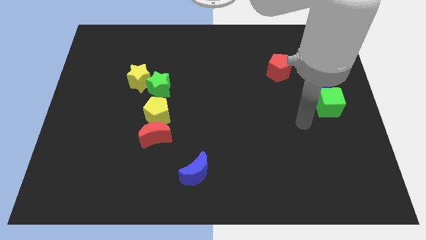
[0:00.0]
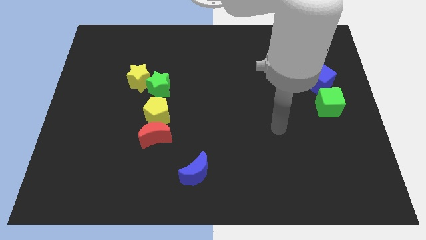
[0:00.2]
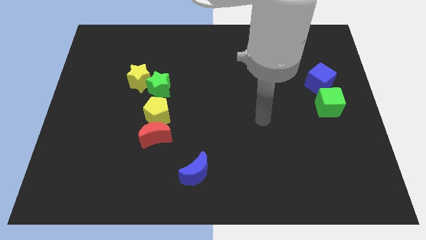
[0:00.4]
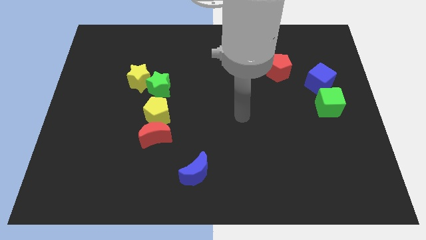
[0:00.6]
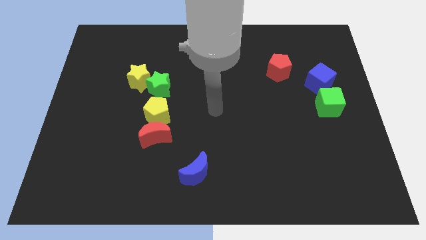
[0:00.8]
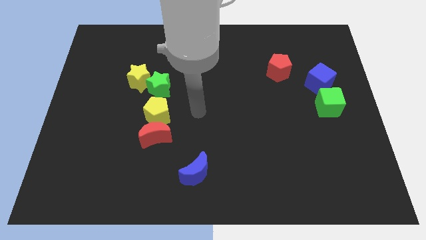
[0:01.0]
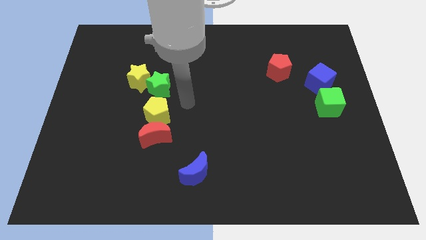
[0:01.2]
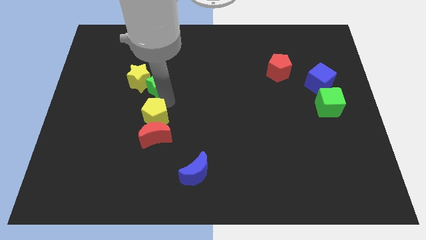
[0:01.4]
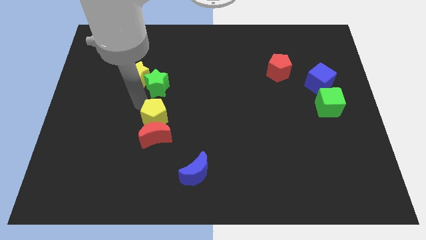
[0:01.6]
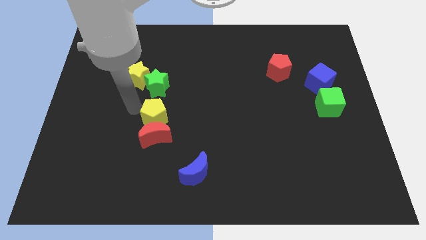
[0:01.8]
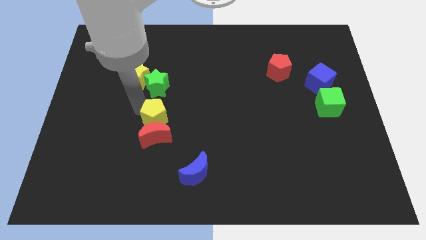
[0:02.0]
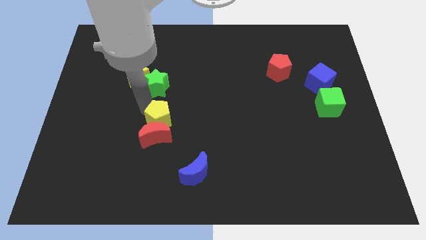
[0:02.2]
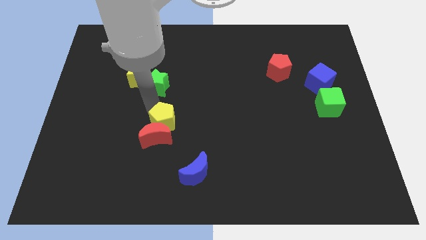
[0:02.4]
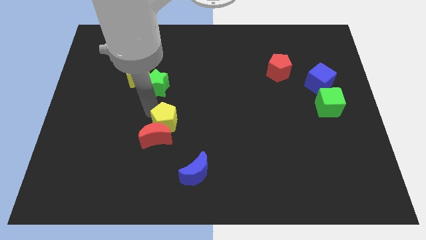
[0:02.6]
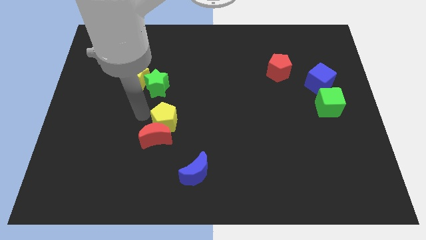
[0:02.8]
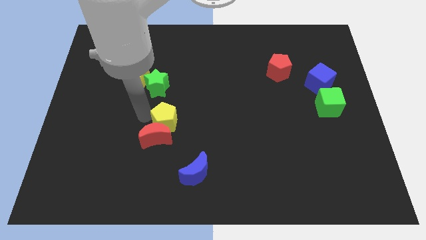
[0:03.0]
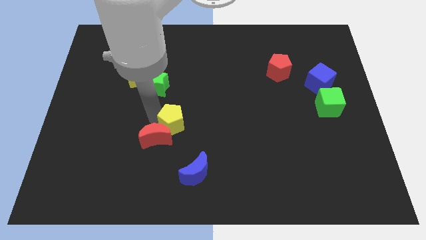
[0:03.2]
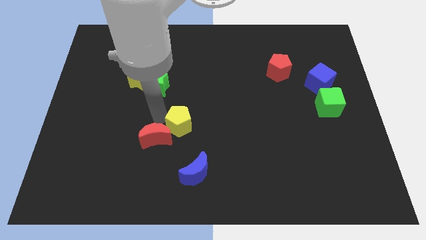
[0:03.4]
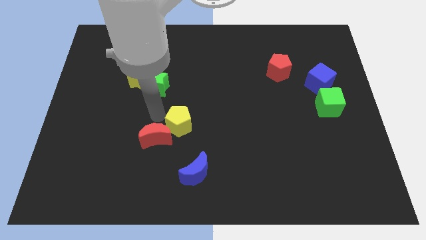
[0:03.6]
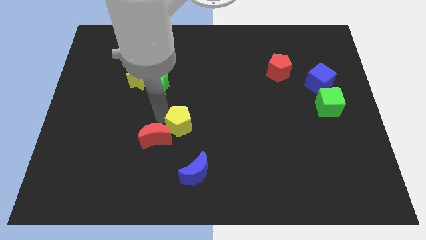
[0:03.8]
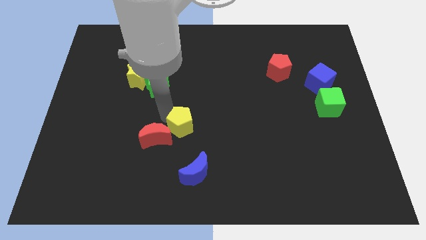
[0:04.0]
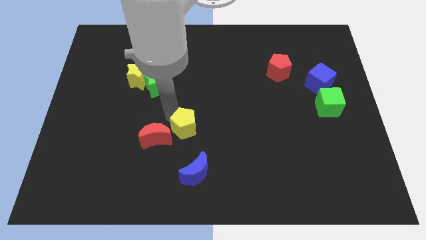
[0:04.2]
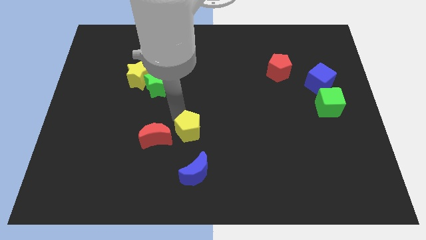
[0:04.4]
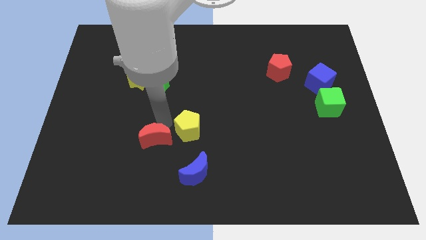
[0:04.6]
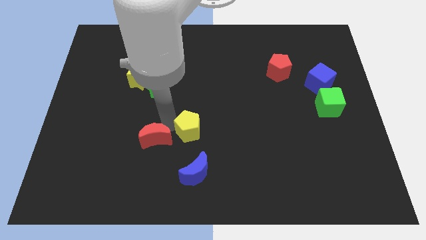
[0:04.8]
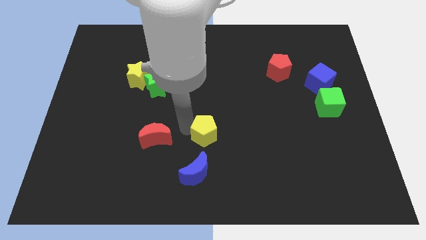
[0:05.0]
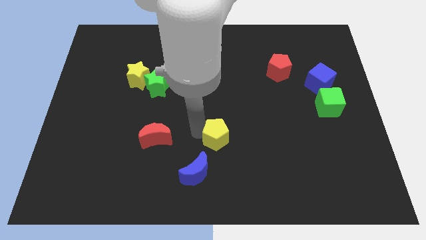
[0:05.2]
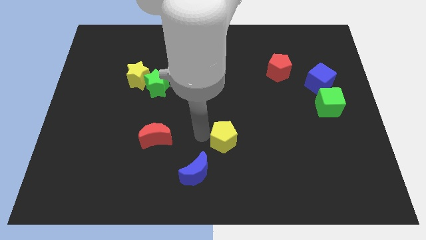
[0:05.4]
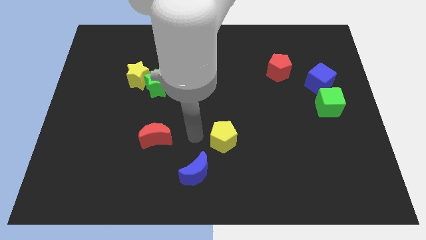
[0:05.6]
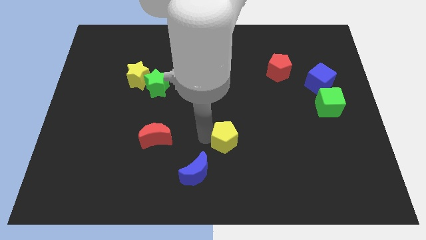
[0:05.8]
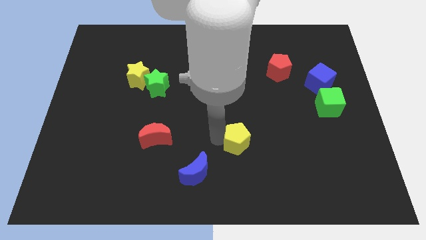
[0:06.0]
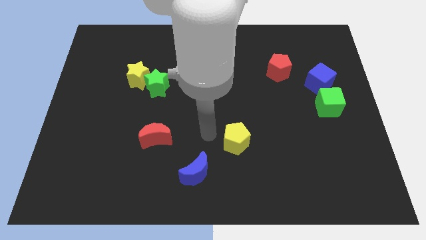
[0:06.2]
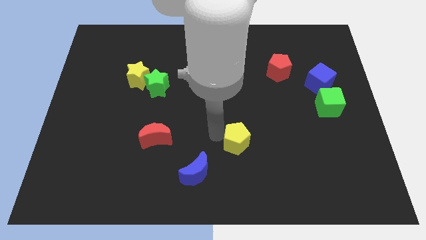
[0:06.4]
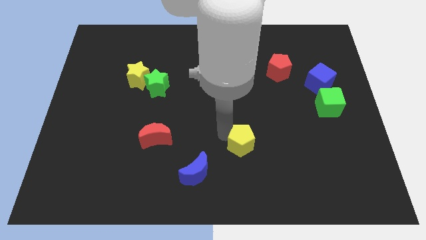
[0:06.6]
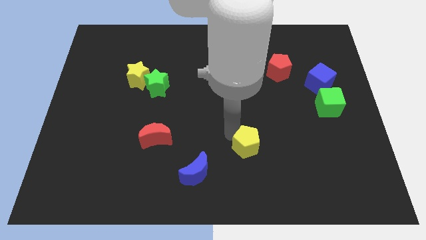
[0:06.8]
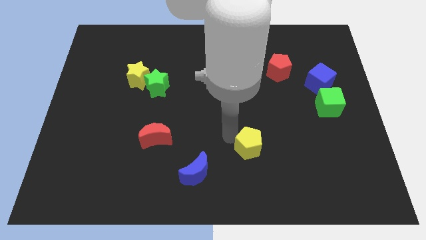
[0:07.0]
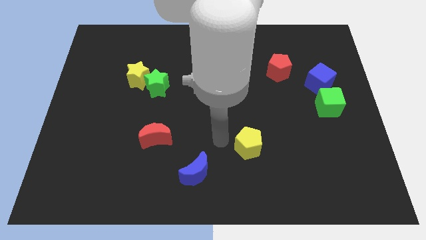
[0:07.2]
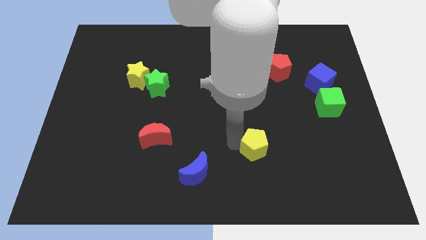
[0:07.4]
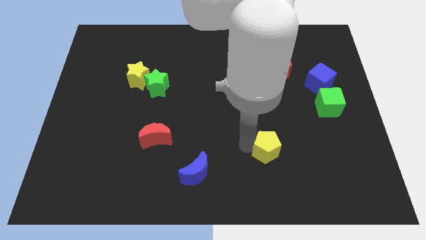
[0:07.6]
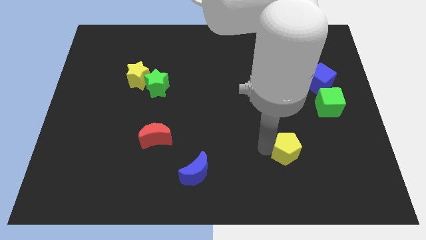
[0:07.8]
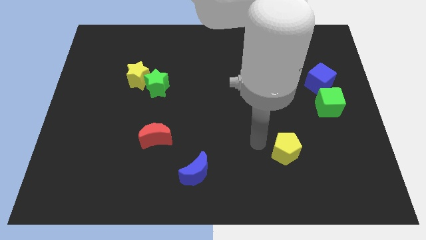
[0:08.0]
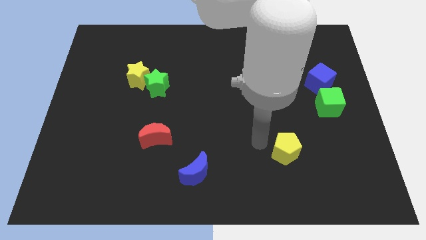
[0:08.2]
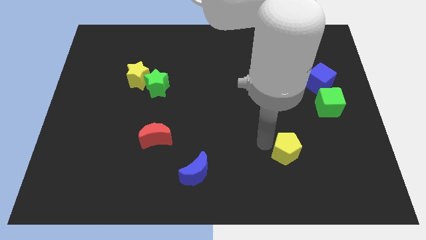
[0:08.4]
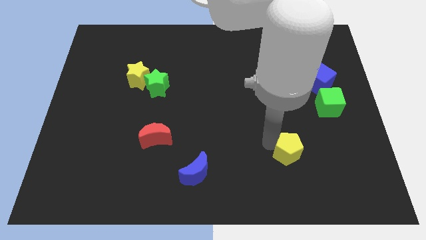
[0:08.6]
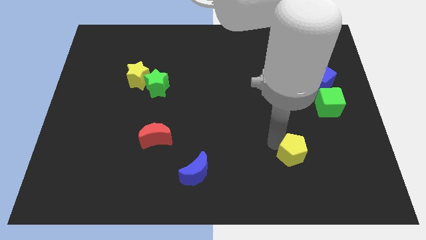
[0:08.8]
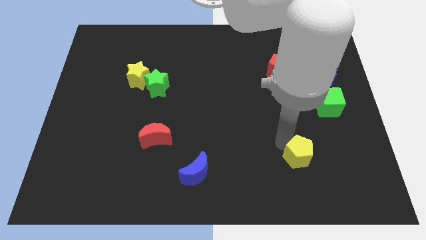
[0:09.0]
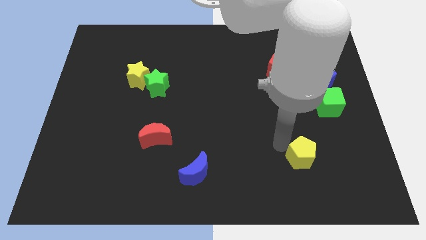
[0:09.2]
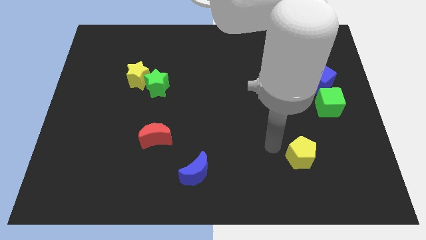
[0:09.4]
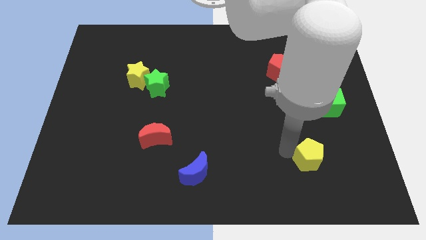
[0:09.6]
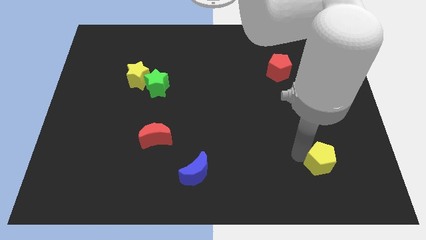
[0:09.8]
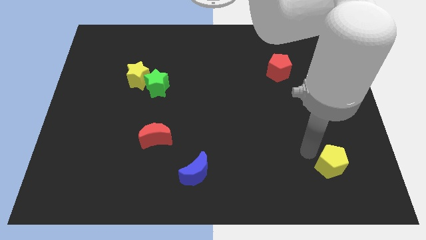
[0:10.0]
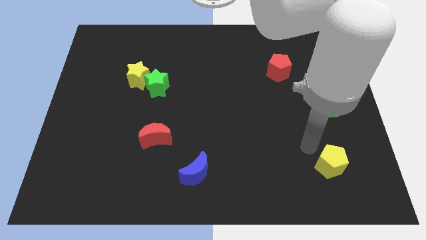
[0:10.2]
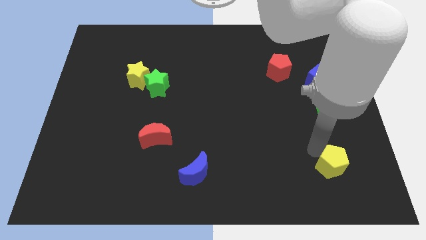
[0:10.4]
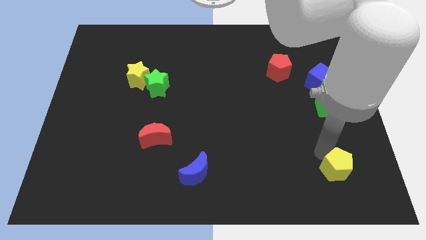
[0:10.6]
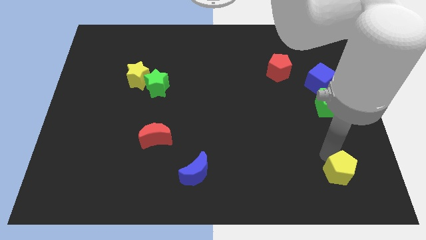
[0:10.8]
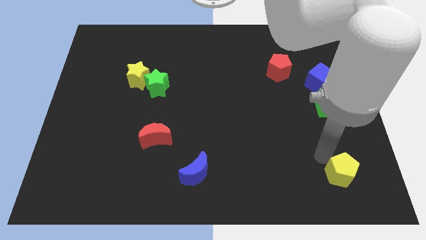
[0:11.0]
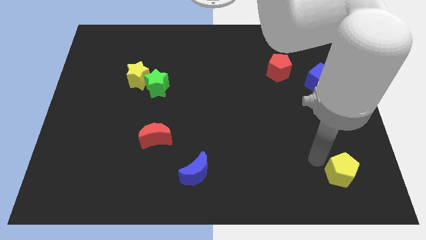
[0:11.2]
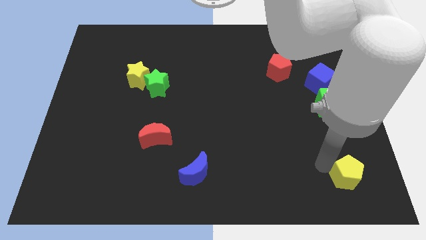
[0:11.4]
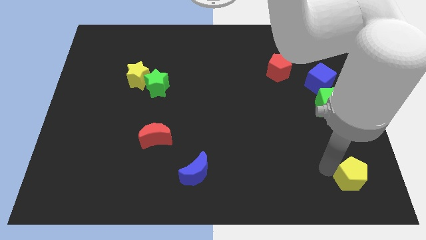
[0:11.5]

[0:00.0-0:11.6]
slide the yellow pentagon to the bottom right of the board

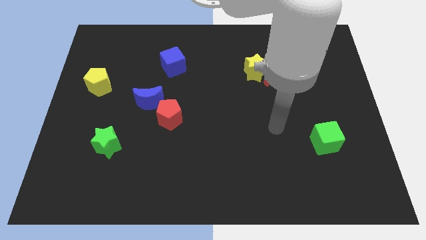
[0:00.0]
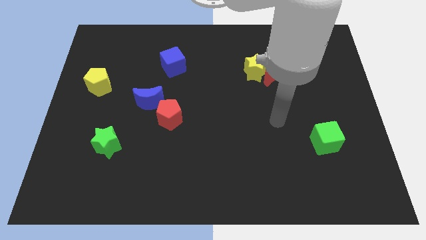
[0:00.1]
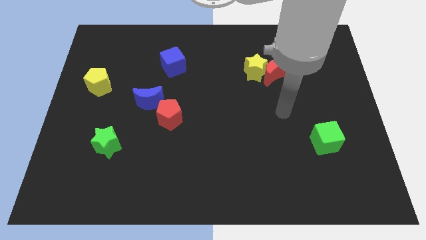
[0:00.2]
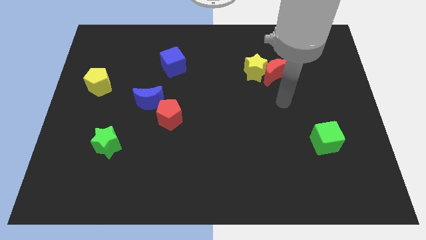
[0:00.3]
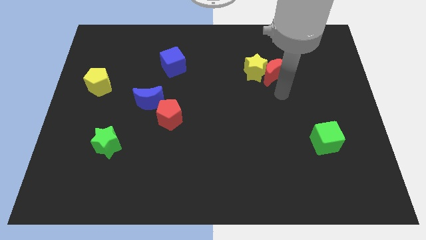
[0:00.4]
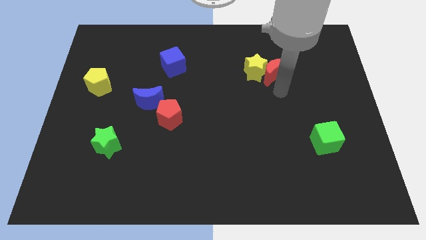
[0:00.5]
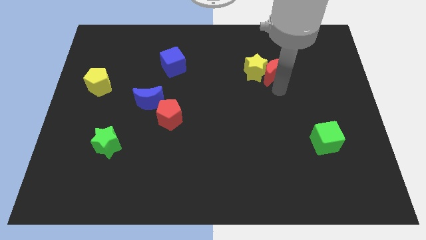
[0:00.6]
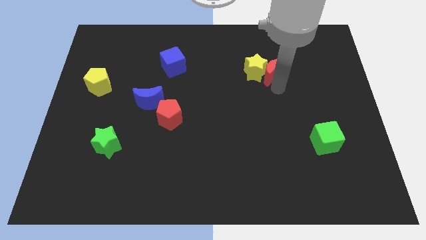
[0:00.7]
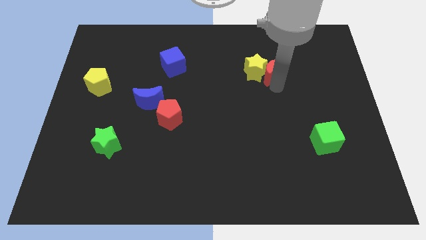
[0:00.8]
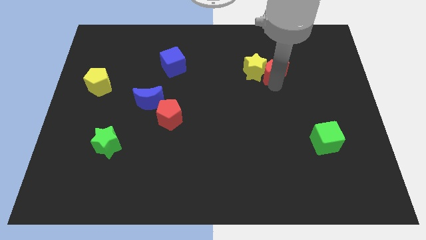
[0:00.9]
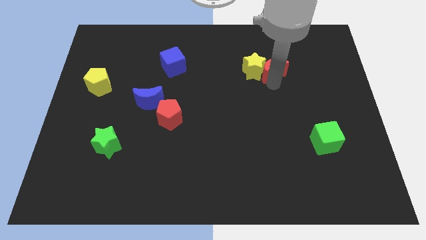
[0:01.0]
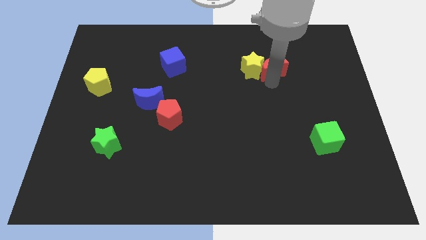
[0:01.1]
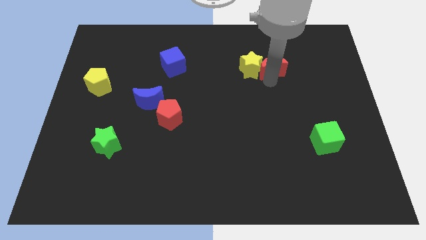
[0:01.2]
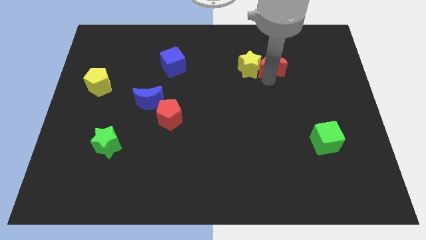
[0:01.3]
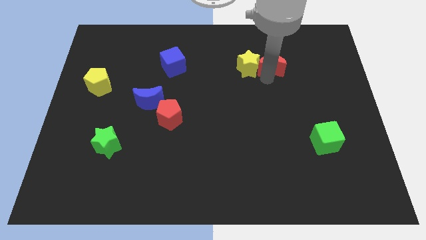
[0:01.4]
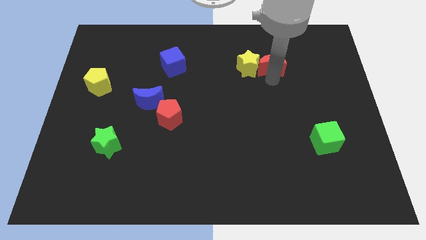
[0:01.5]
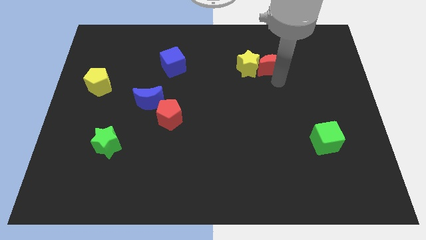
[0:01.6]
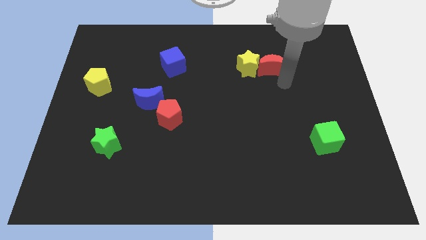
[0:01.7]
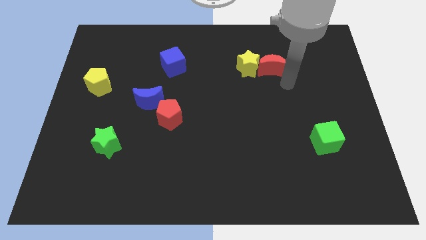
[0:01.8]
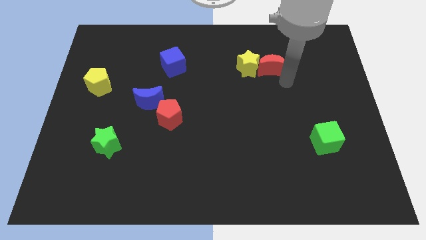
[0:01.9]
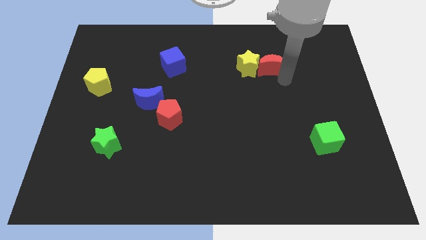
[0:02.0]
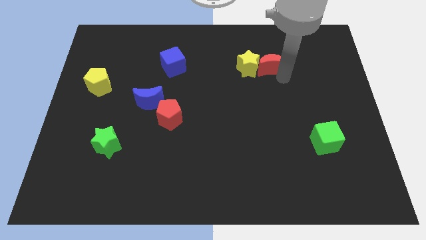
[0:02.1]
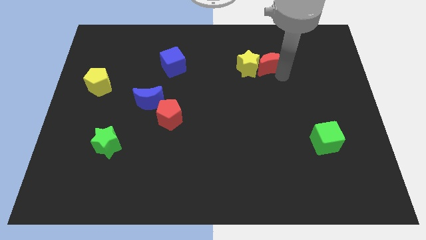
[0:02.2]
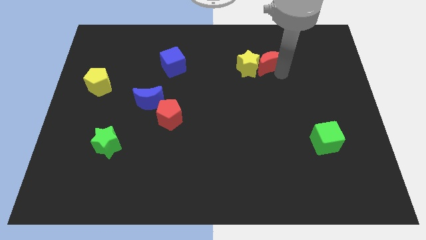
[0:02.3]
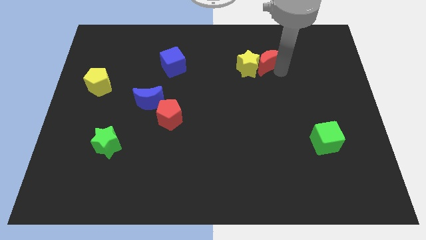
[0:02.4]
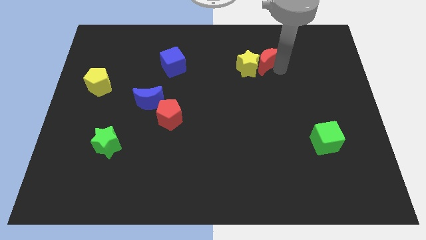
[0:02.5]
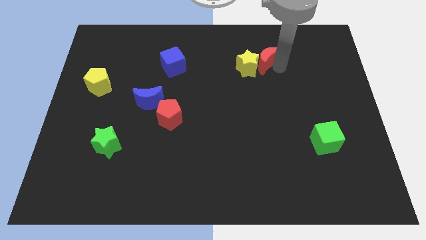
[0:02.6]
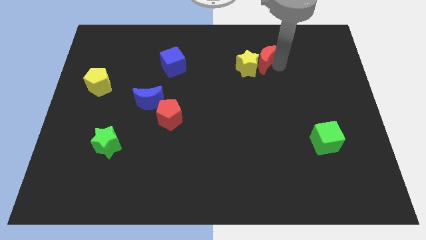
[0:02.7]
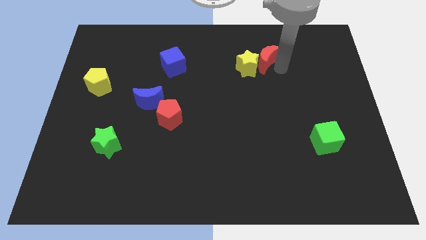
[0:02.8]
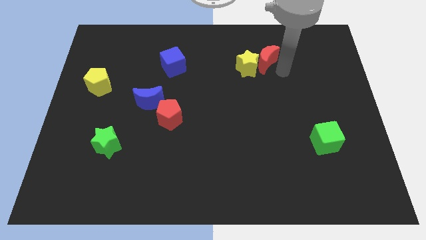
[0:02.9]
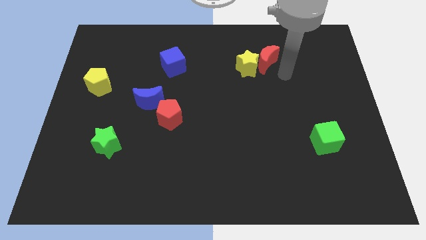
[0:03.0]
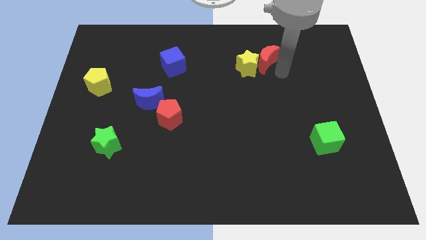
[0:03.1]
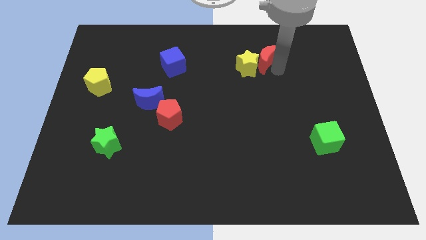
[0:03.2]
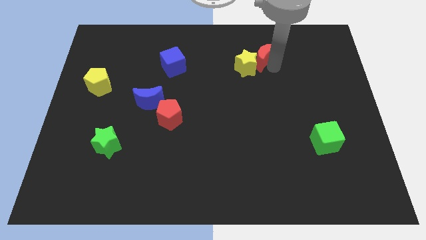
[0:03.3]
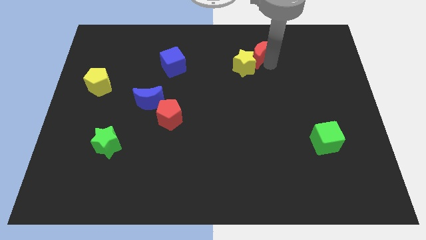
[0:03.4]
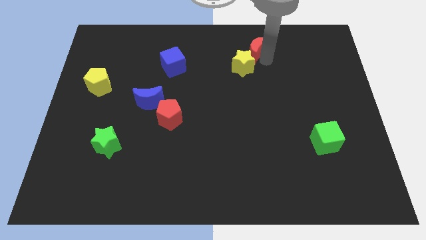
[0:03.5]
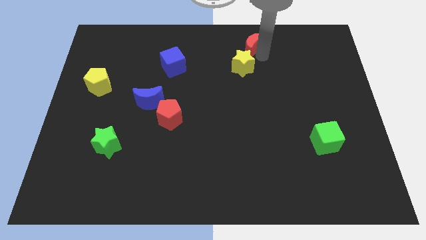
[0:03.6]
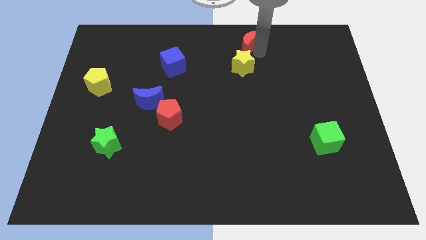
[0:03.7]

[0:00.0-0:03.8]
put the red moon to the top side
